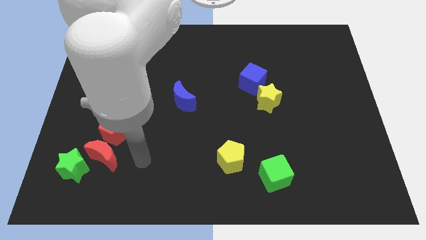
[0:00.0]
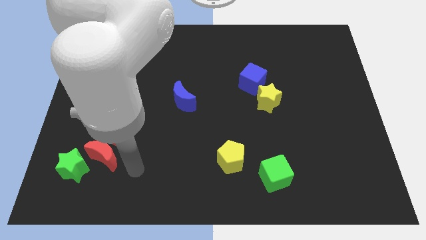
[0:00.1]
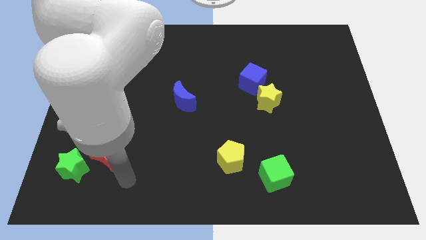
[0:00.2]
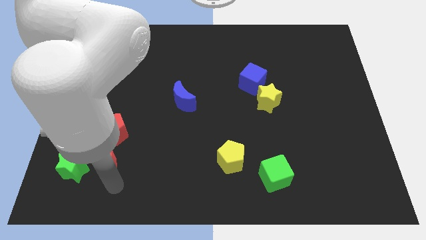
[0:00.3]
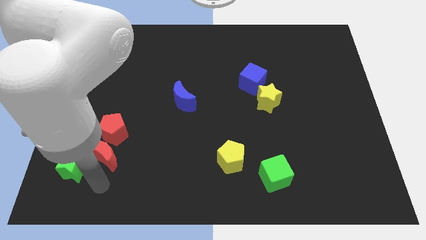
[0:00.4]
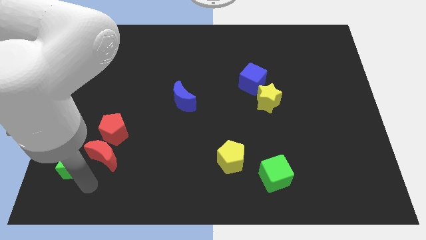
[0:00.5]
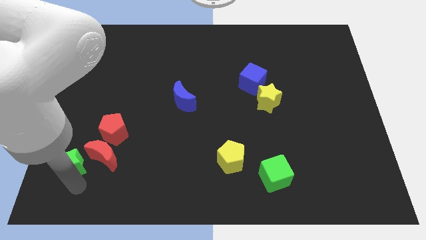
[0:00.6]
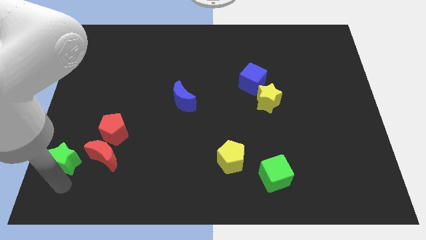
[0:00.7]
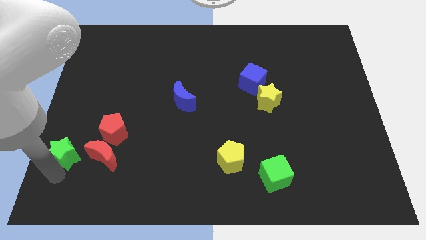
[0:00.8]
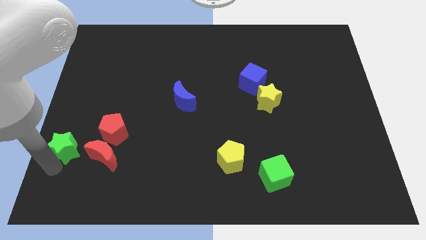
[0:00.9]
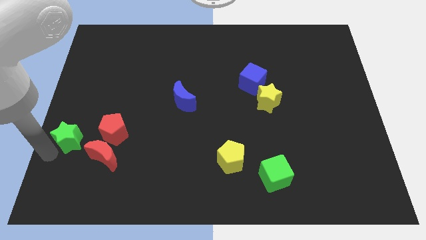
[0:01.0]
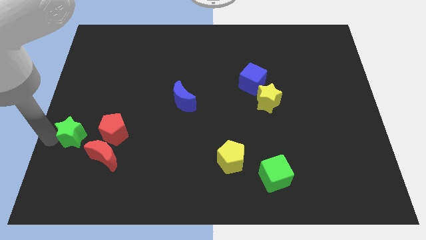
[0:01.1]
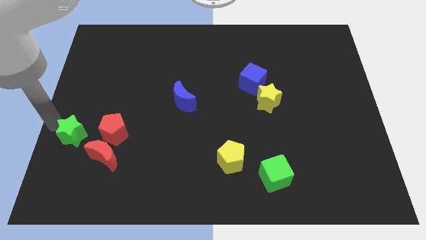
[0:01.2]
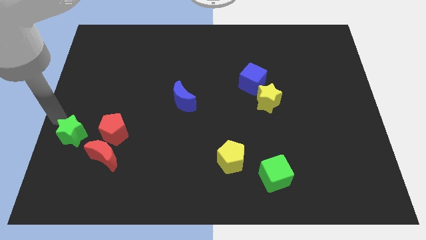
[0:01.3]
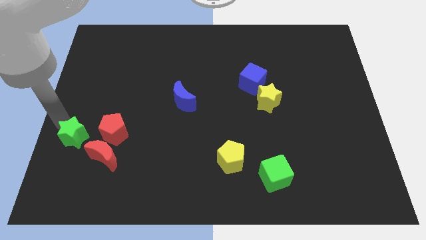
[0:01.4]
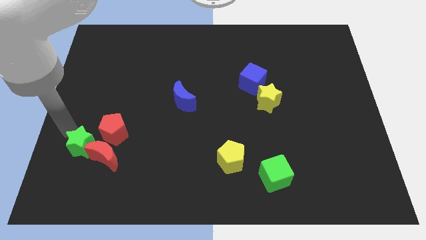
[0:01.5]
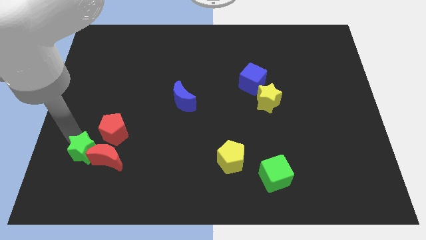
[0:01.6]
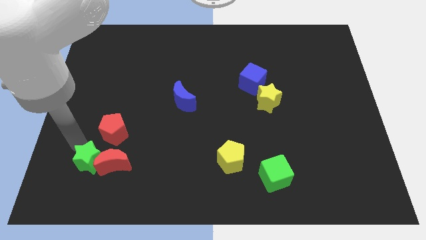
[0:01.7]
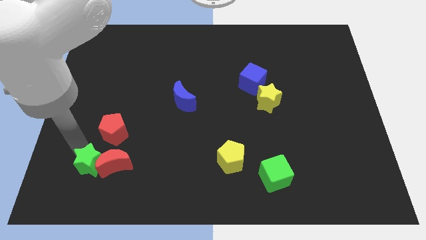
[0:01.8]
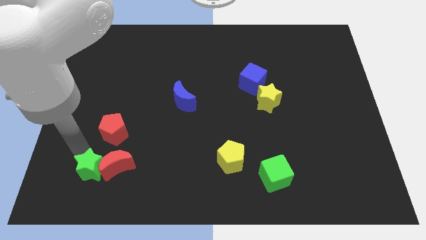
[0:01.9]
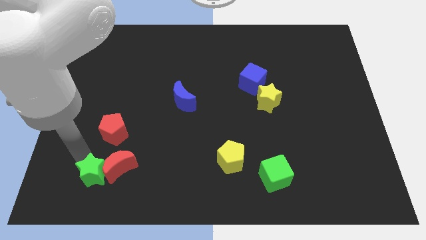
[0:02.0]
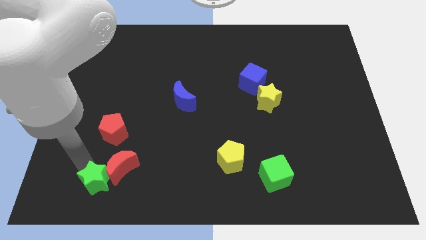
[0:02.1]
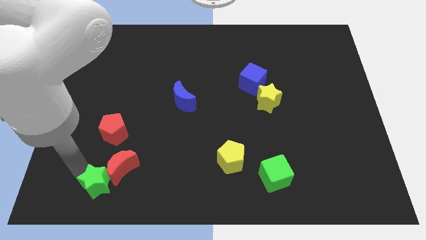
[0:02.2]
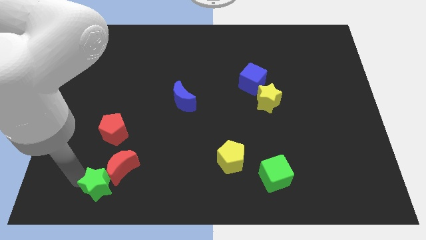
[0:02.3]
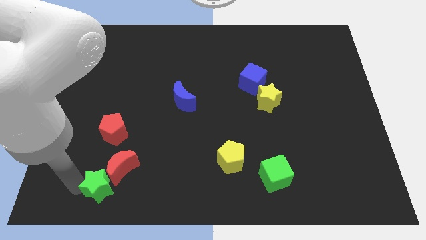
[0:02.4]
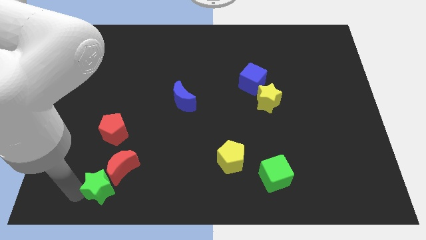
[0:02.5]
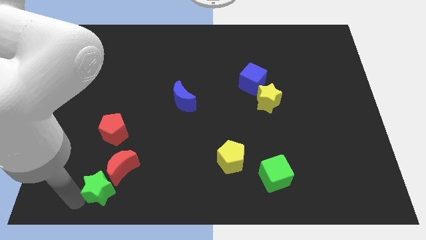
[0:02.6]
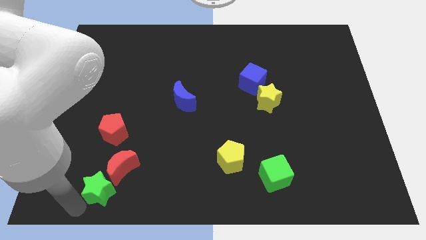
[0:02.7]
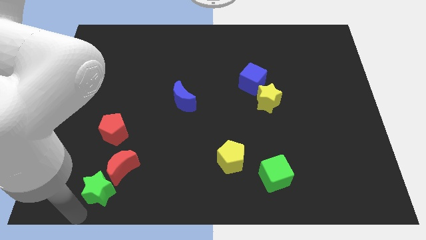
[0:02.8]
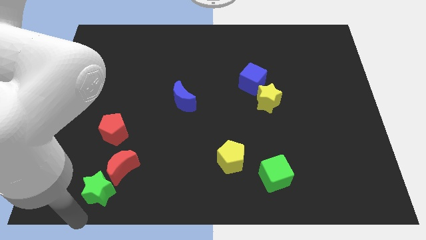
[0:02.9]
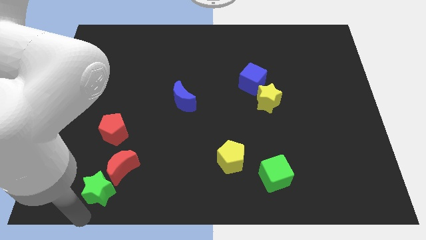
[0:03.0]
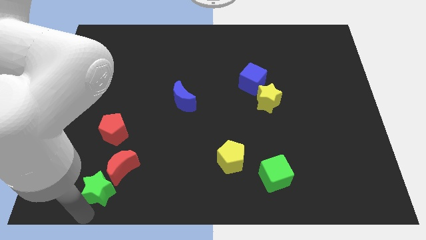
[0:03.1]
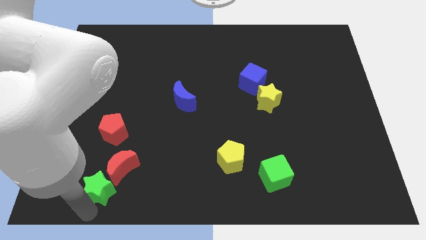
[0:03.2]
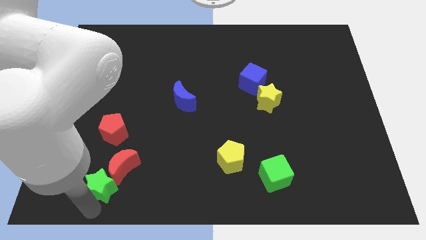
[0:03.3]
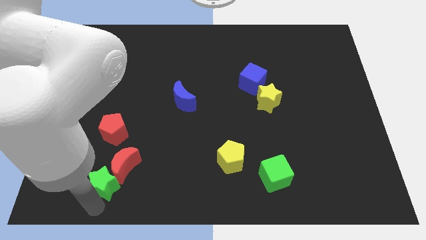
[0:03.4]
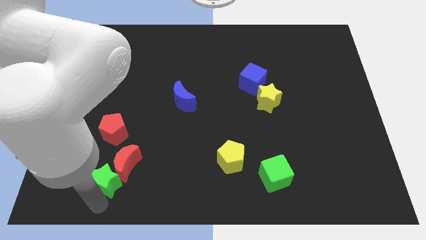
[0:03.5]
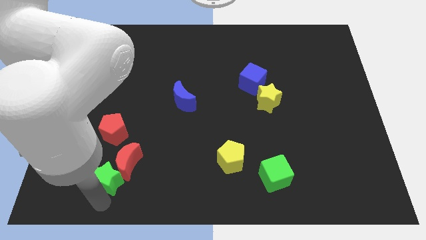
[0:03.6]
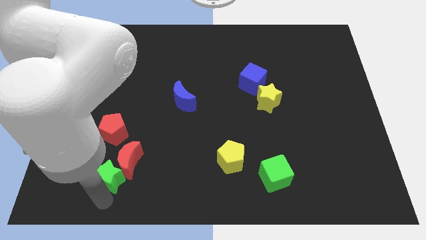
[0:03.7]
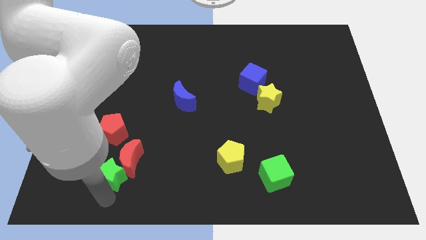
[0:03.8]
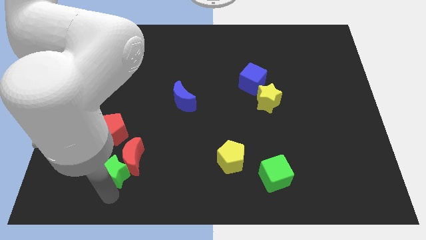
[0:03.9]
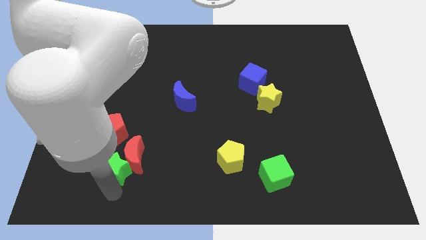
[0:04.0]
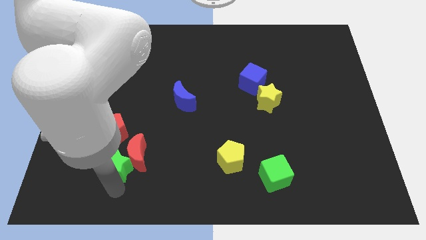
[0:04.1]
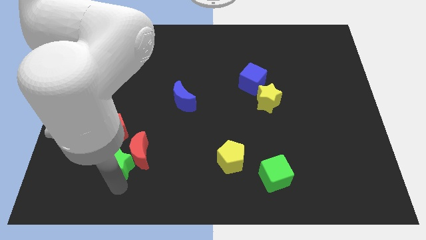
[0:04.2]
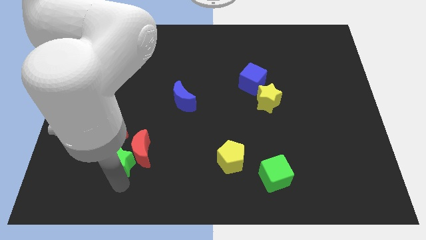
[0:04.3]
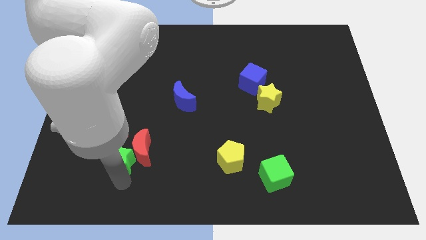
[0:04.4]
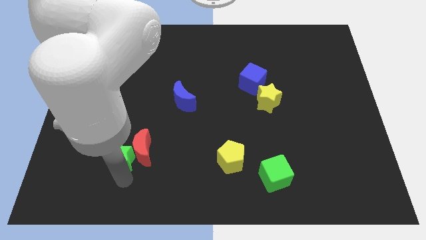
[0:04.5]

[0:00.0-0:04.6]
slightly slide the green star up and right diagonally

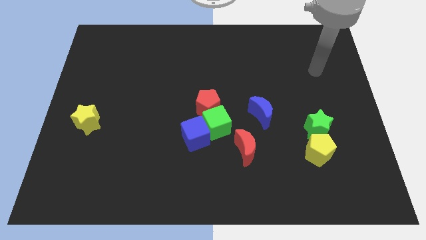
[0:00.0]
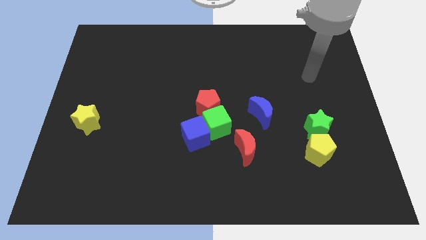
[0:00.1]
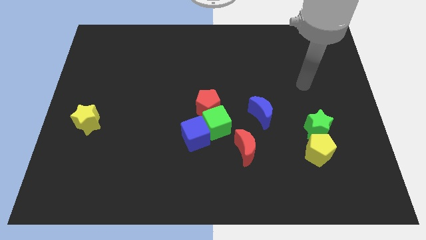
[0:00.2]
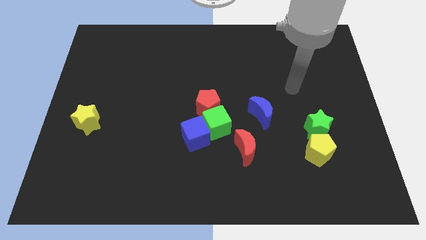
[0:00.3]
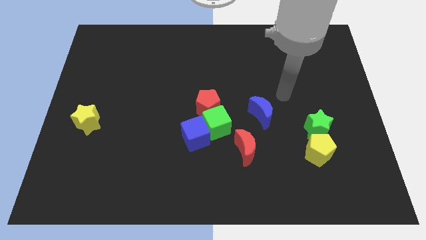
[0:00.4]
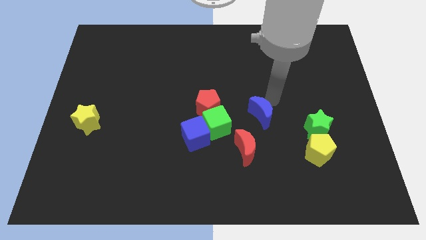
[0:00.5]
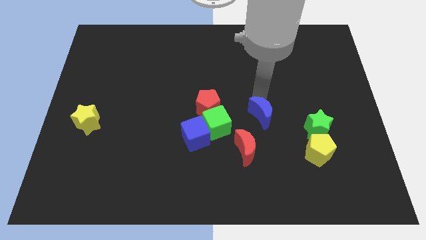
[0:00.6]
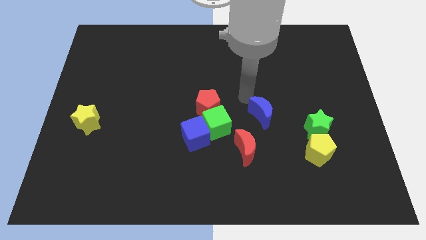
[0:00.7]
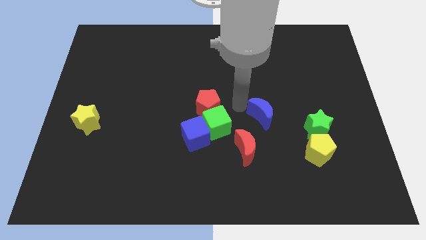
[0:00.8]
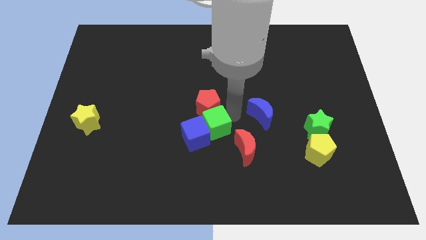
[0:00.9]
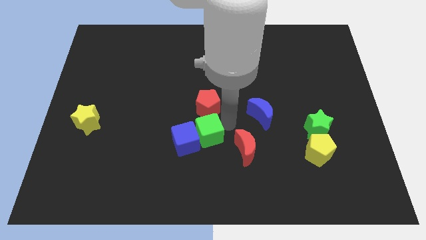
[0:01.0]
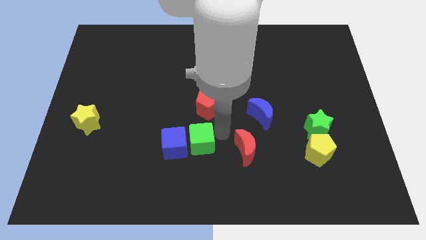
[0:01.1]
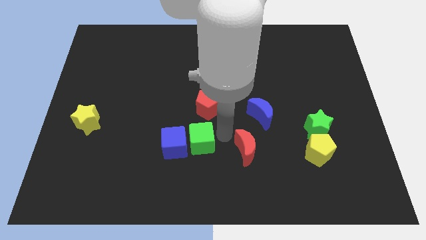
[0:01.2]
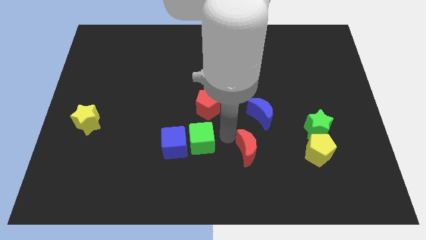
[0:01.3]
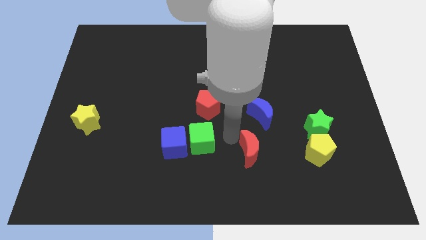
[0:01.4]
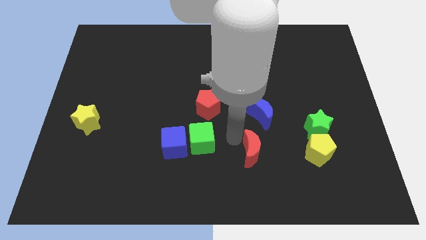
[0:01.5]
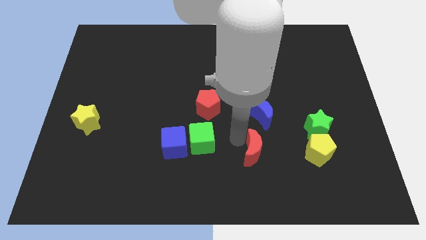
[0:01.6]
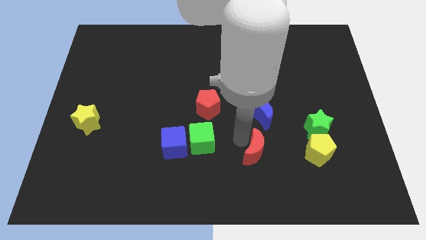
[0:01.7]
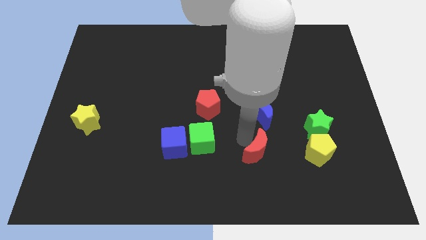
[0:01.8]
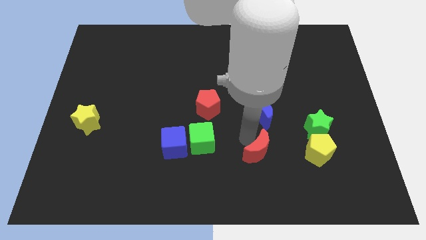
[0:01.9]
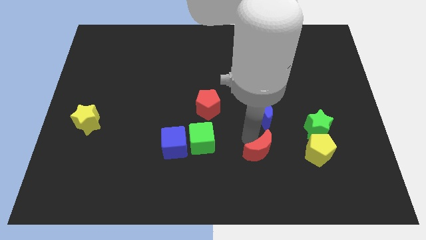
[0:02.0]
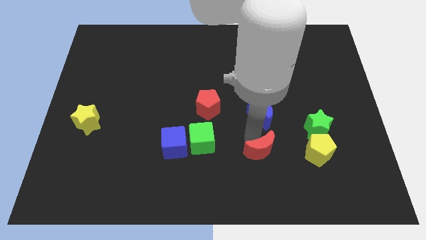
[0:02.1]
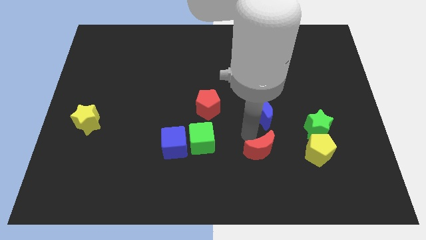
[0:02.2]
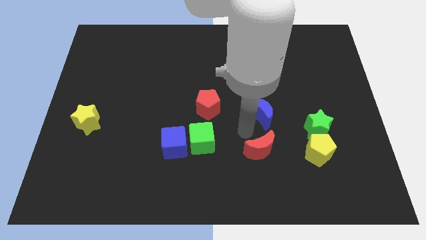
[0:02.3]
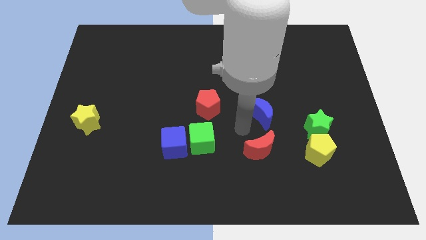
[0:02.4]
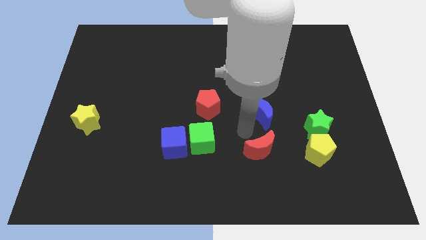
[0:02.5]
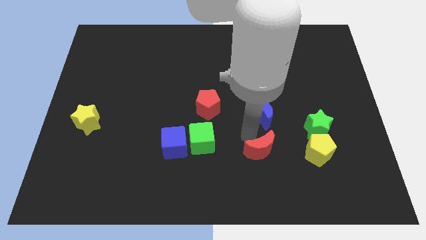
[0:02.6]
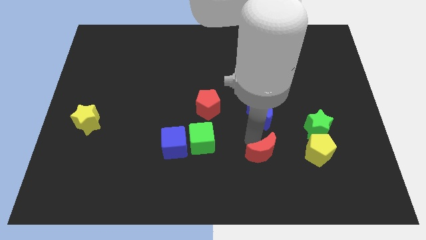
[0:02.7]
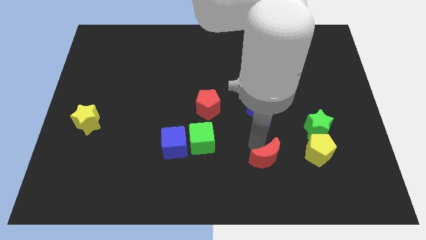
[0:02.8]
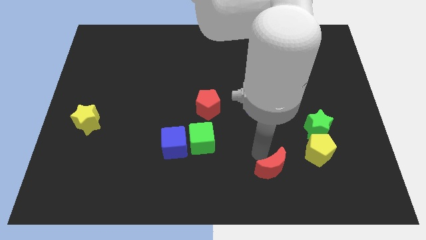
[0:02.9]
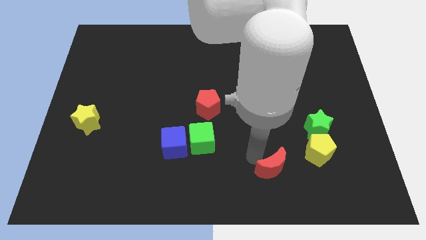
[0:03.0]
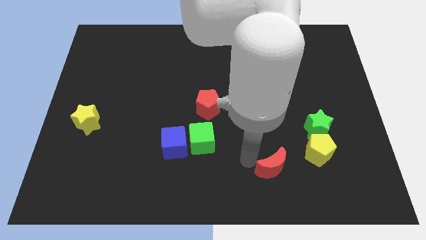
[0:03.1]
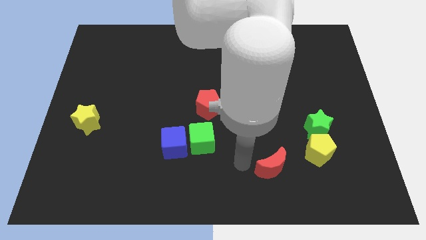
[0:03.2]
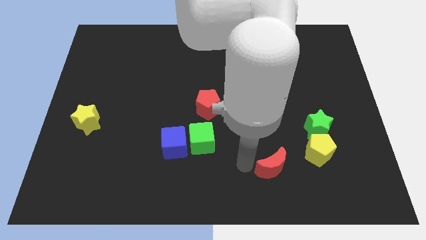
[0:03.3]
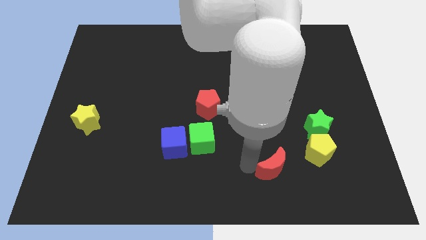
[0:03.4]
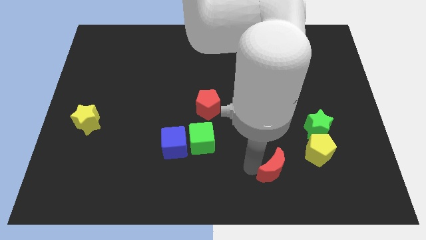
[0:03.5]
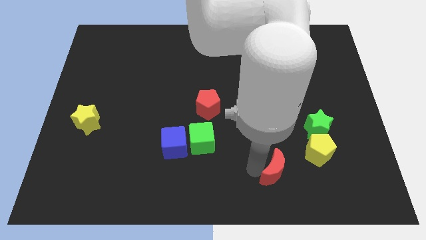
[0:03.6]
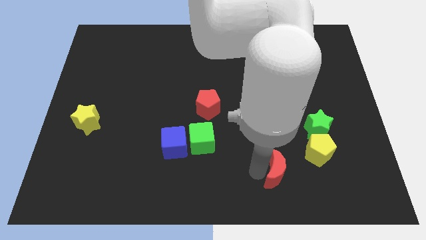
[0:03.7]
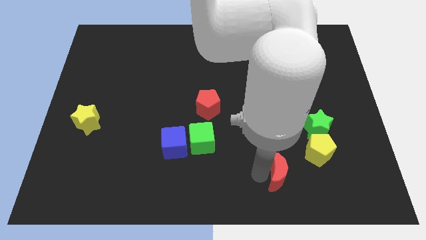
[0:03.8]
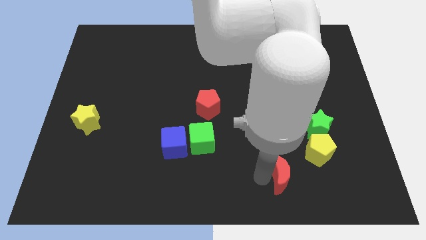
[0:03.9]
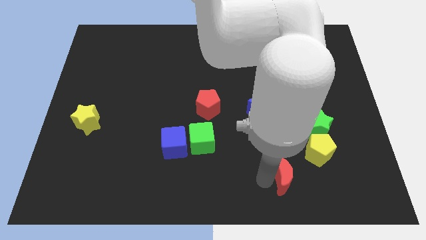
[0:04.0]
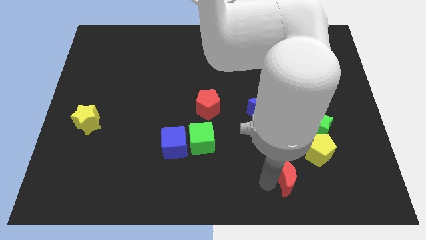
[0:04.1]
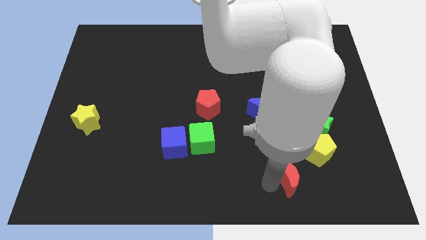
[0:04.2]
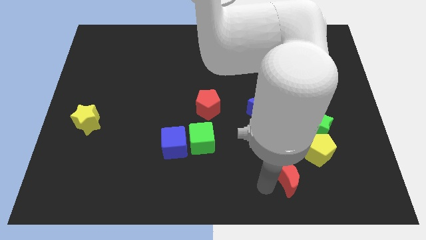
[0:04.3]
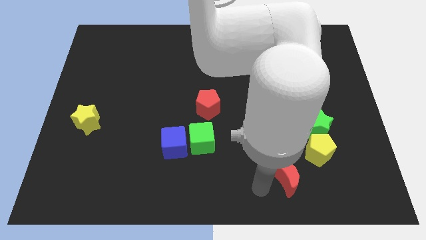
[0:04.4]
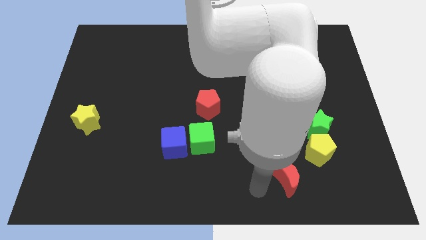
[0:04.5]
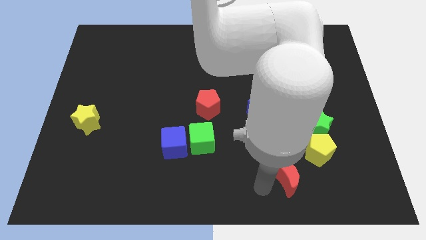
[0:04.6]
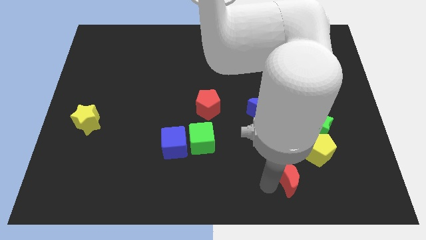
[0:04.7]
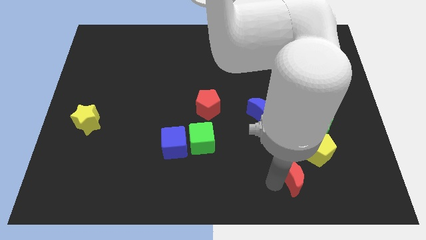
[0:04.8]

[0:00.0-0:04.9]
push the red moon somewhat to the right
